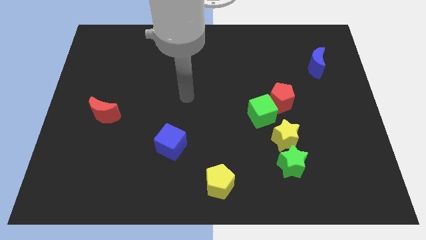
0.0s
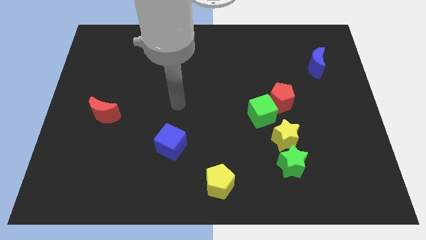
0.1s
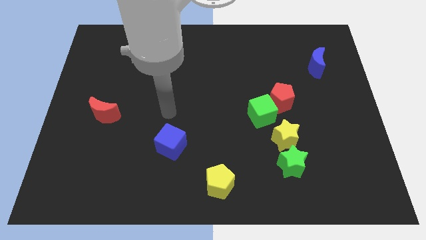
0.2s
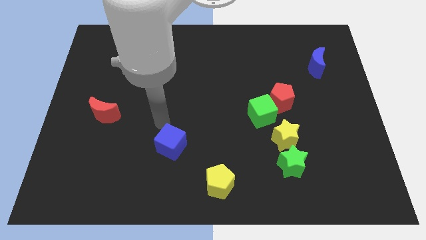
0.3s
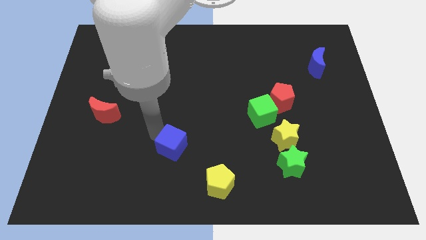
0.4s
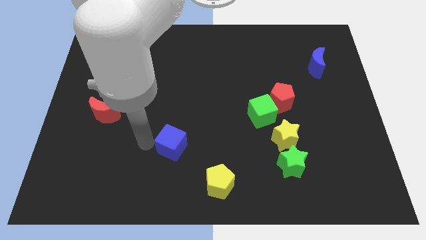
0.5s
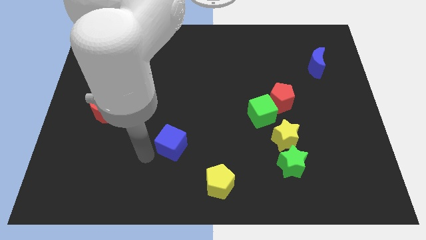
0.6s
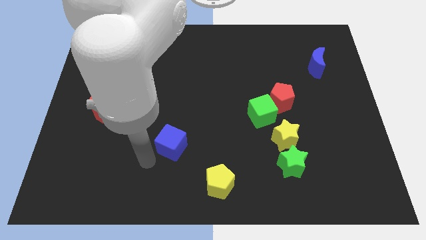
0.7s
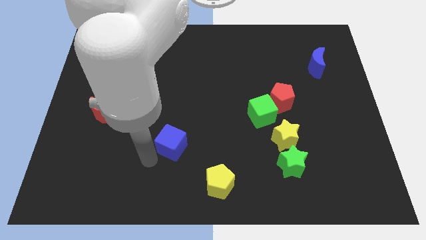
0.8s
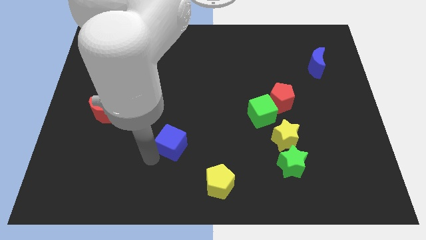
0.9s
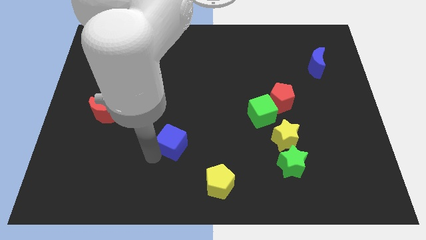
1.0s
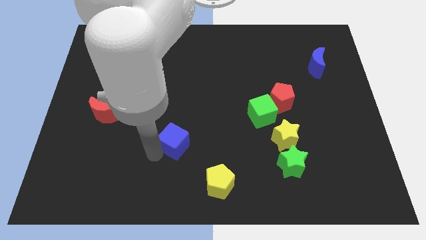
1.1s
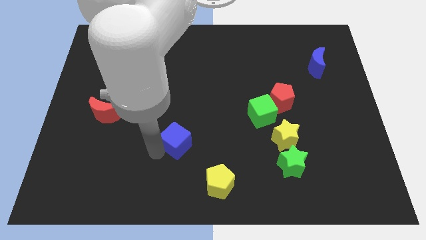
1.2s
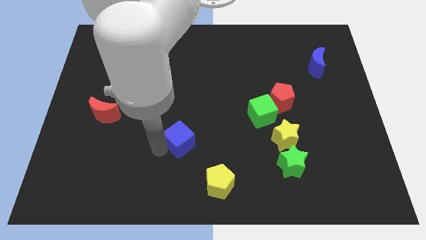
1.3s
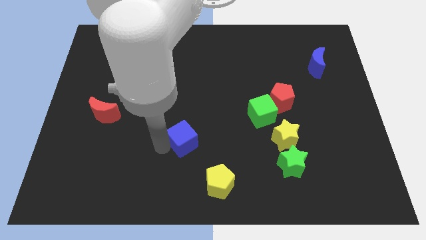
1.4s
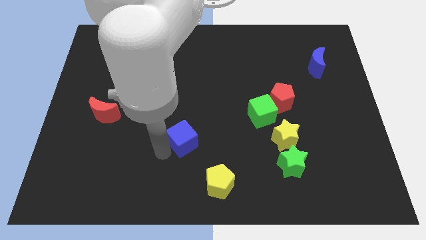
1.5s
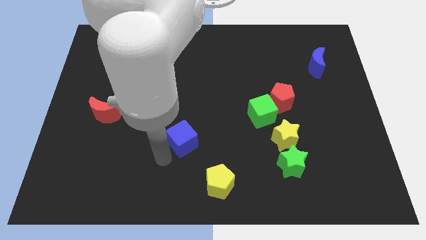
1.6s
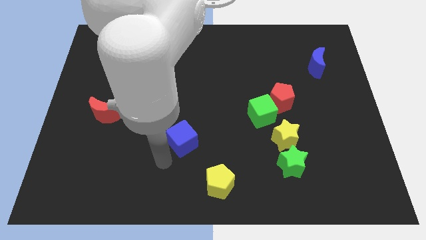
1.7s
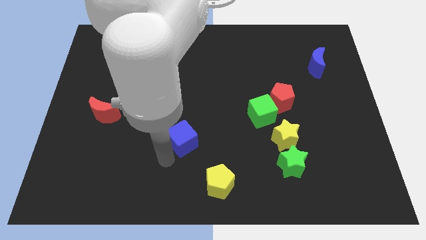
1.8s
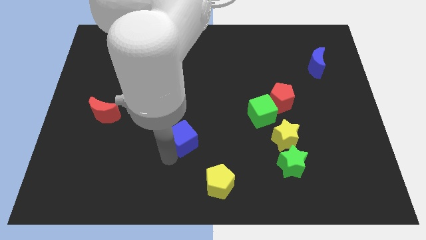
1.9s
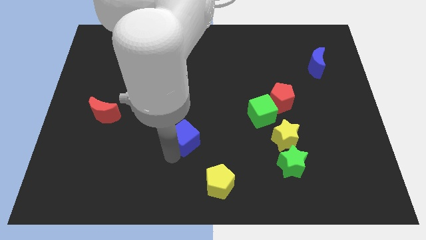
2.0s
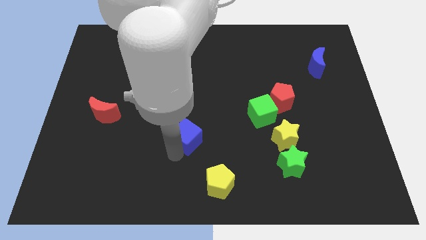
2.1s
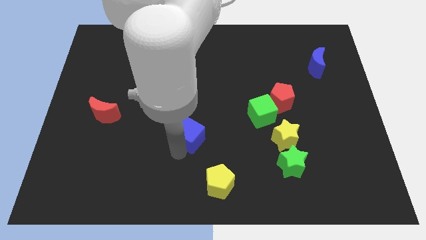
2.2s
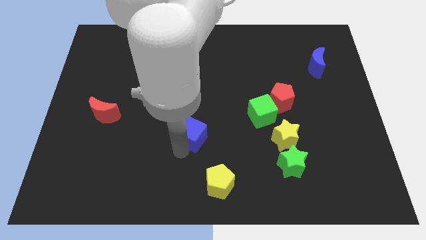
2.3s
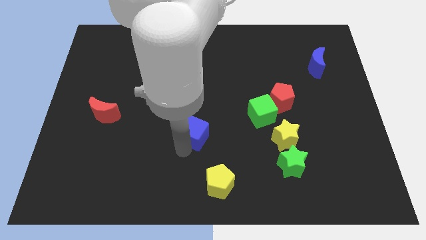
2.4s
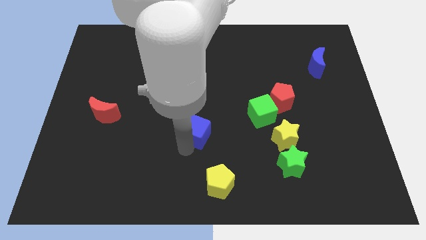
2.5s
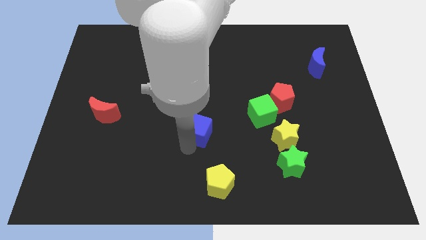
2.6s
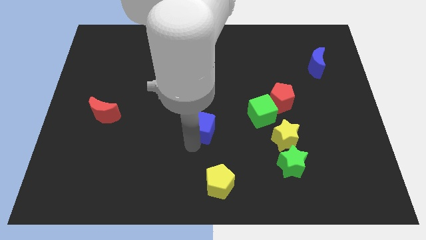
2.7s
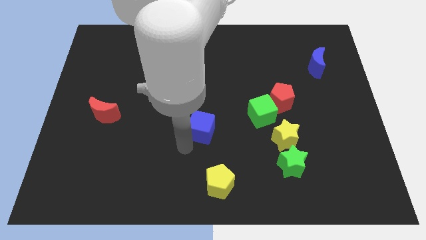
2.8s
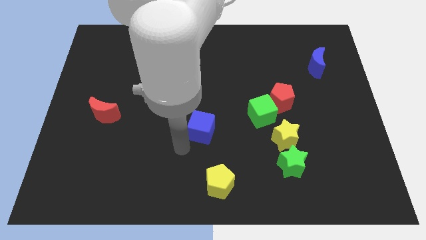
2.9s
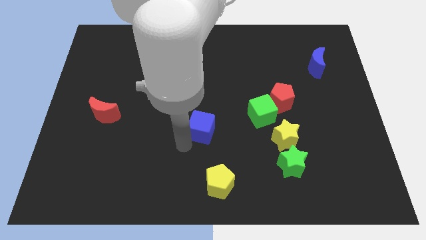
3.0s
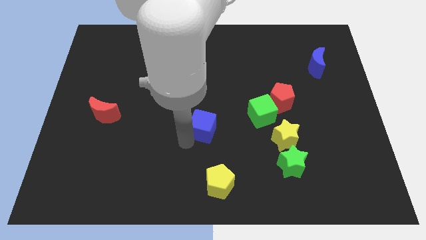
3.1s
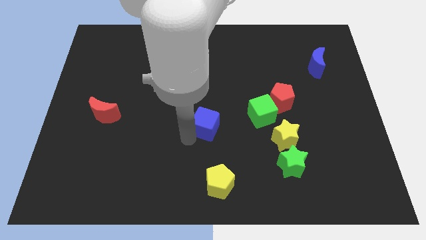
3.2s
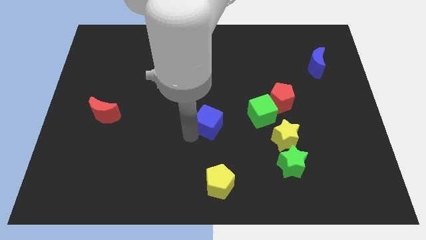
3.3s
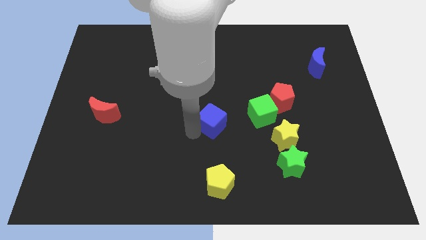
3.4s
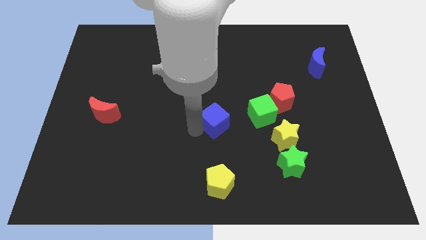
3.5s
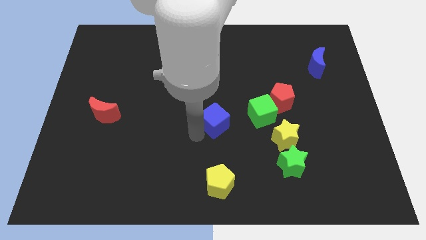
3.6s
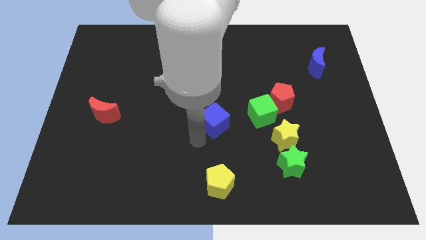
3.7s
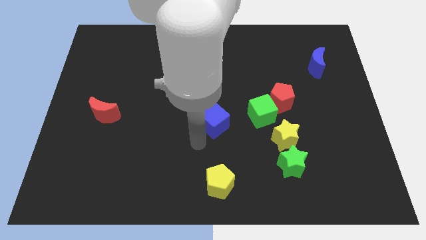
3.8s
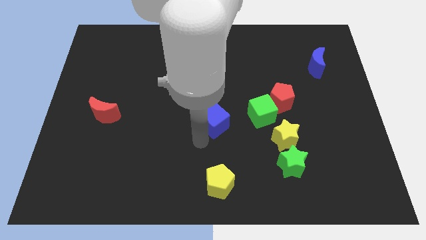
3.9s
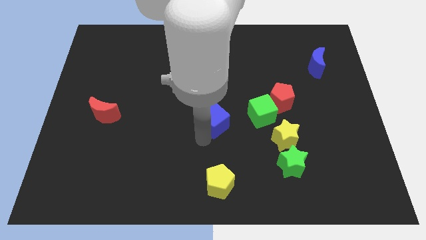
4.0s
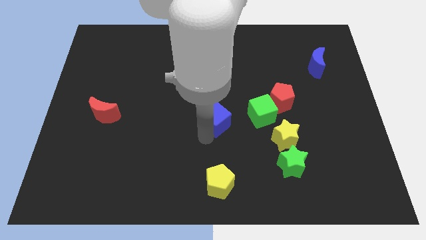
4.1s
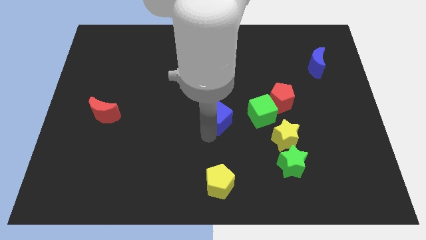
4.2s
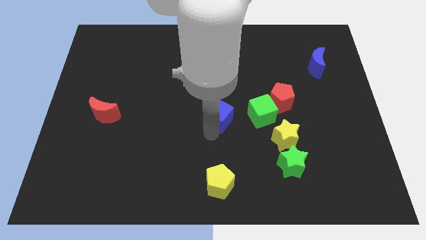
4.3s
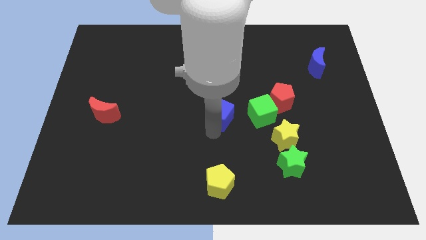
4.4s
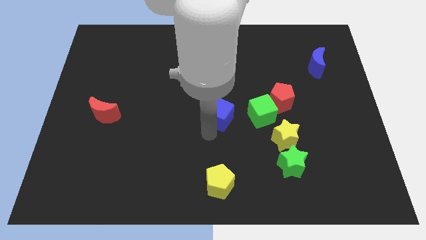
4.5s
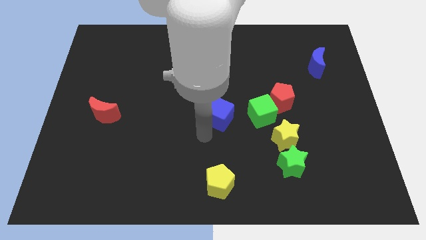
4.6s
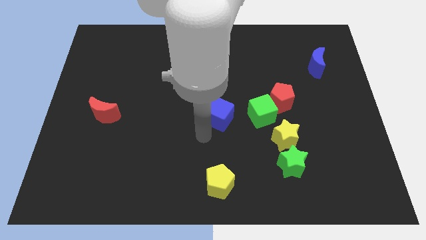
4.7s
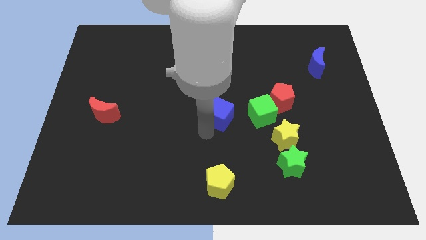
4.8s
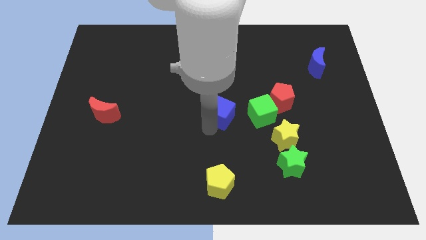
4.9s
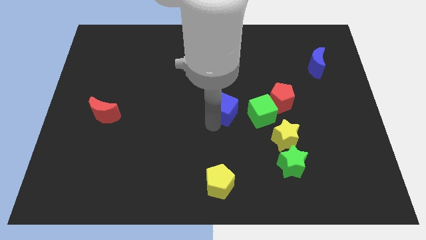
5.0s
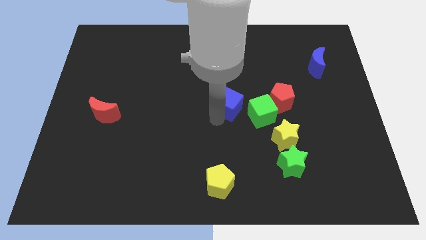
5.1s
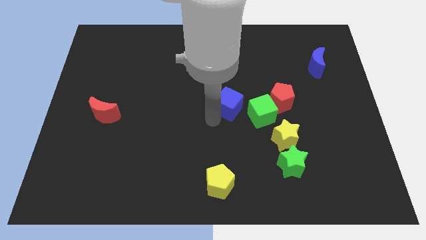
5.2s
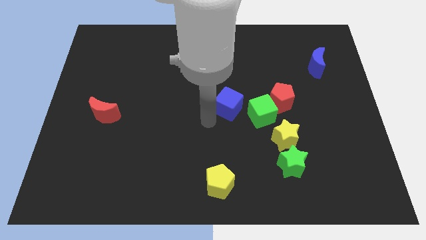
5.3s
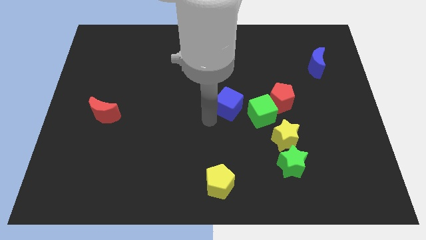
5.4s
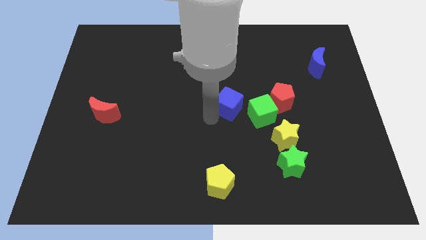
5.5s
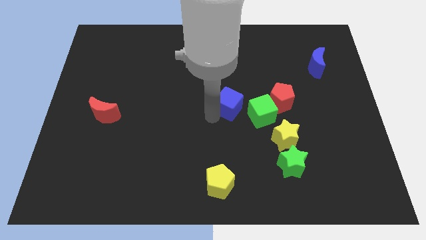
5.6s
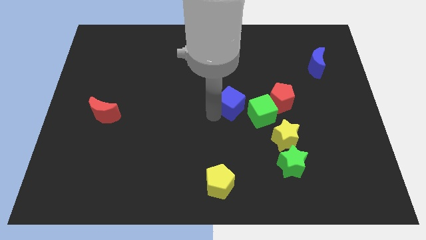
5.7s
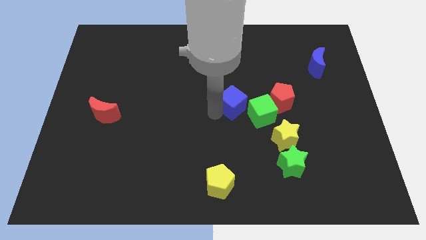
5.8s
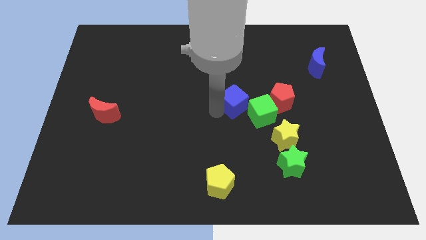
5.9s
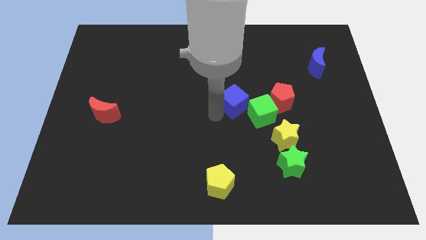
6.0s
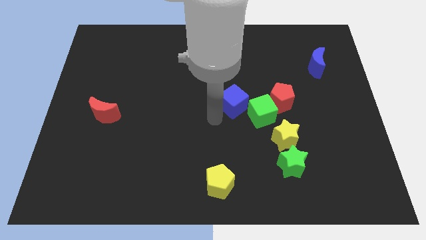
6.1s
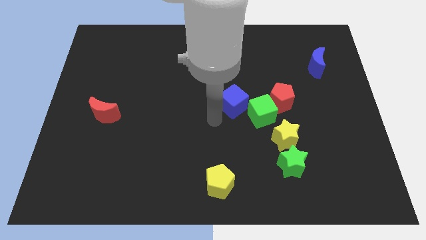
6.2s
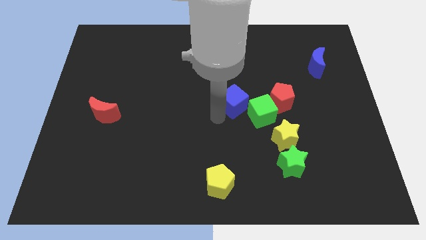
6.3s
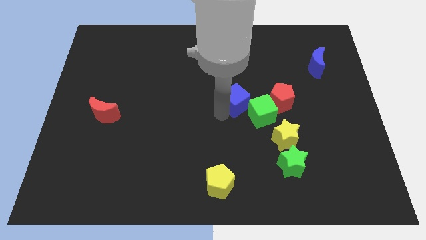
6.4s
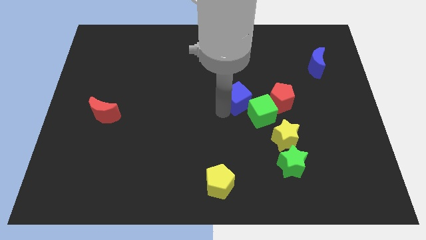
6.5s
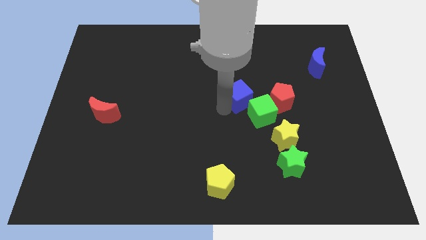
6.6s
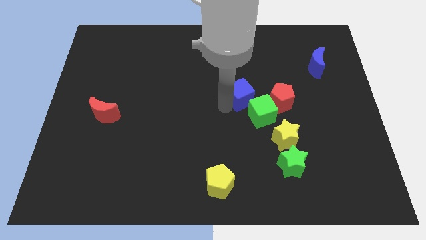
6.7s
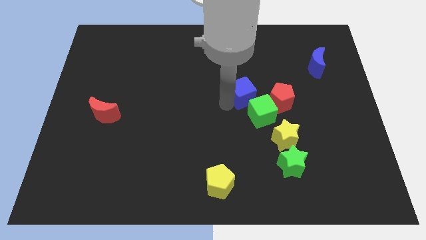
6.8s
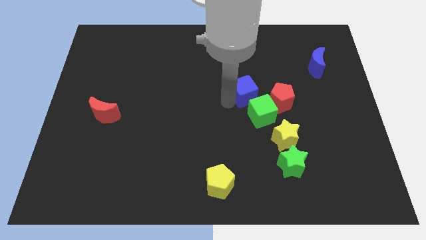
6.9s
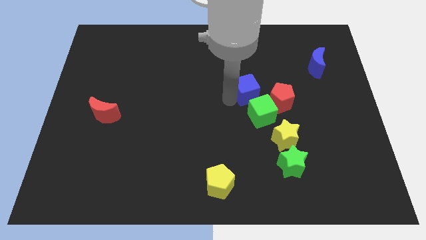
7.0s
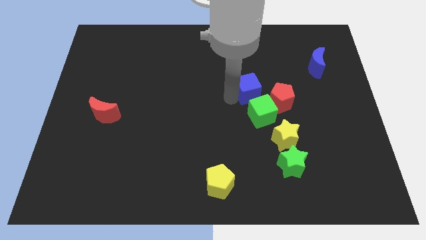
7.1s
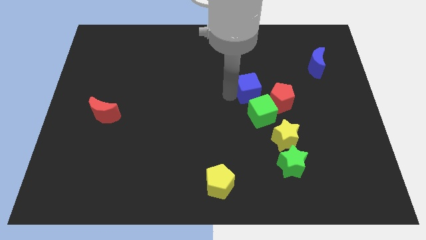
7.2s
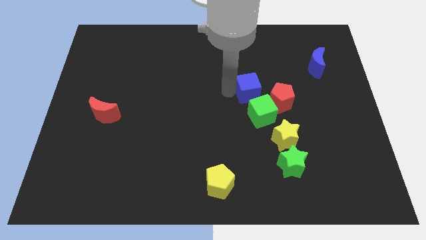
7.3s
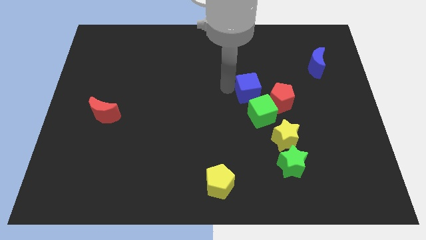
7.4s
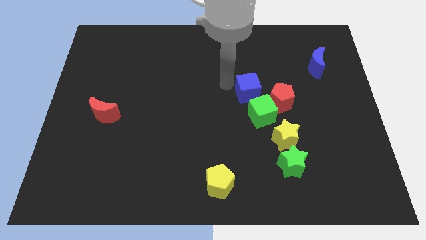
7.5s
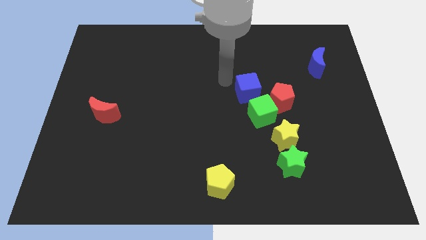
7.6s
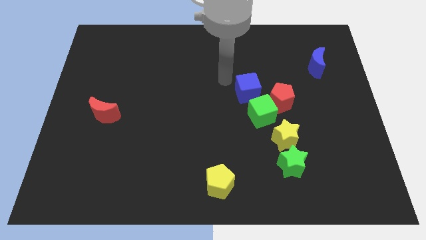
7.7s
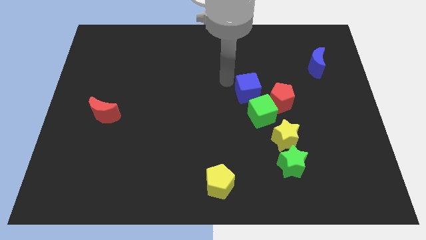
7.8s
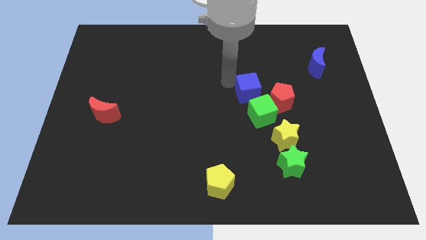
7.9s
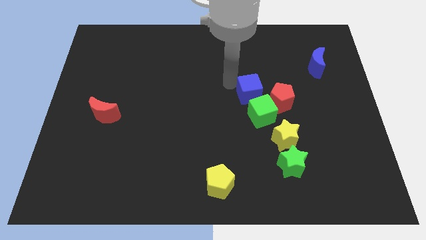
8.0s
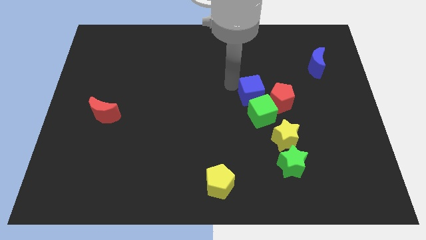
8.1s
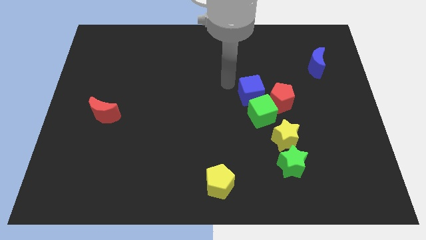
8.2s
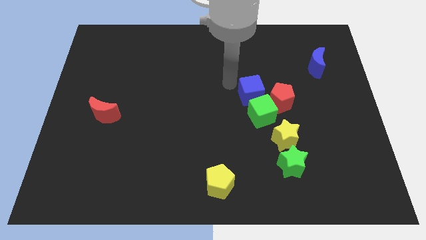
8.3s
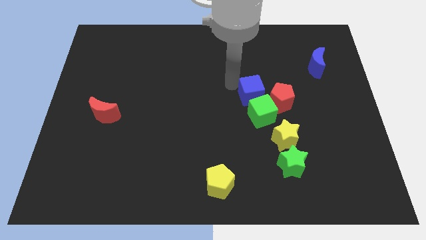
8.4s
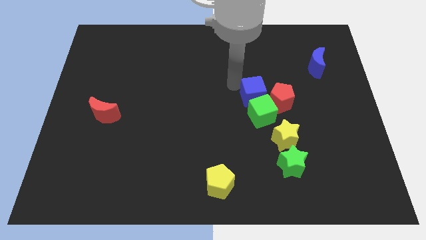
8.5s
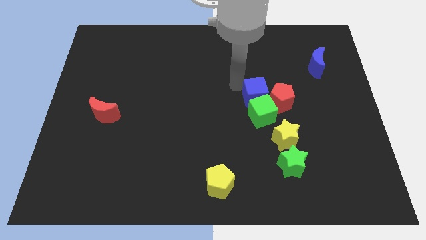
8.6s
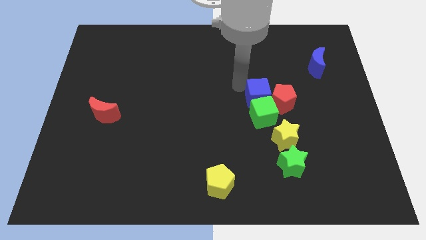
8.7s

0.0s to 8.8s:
slide the blue cube to the red pentagon
